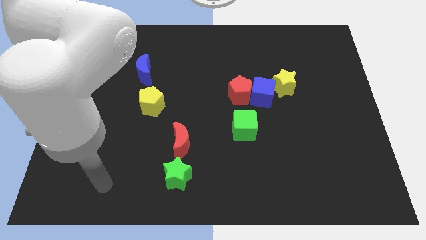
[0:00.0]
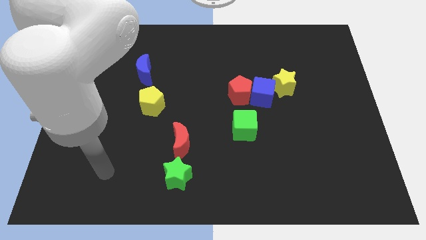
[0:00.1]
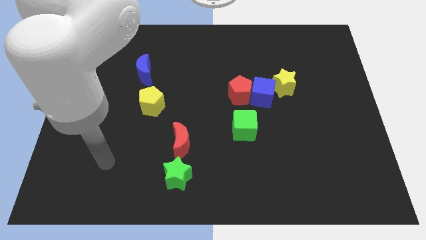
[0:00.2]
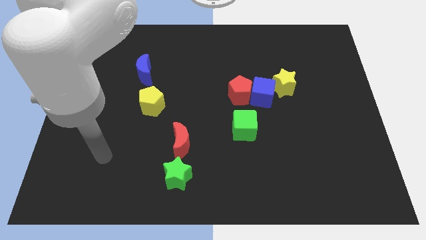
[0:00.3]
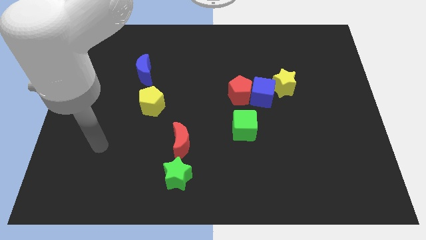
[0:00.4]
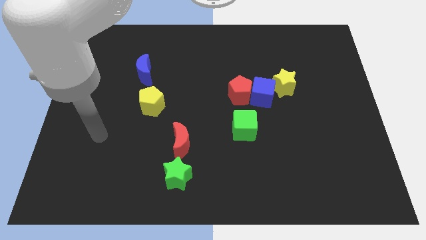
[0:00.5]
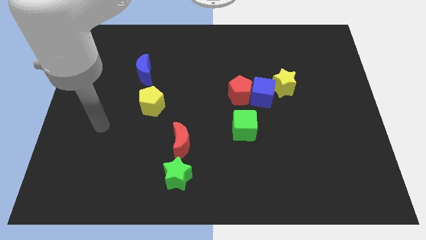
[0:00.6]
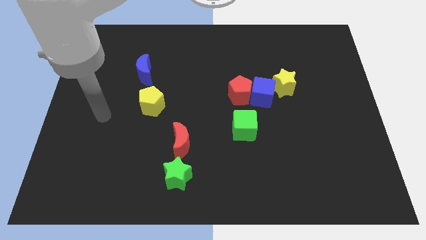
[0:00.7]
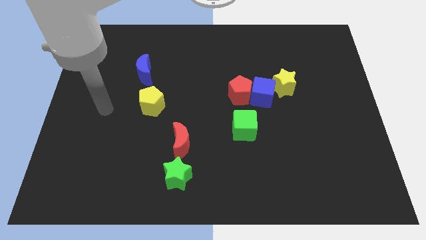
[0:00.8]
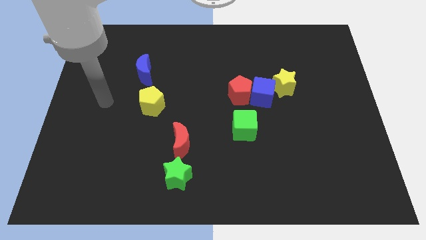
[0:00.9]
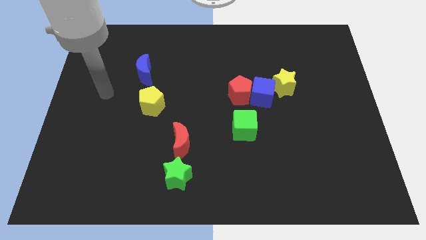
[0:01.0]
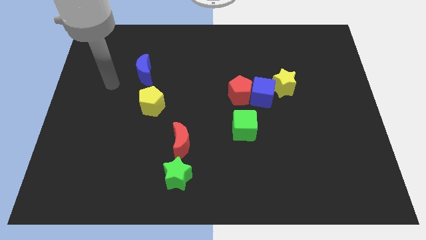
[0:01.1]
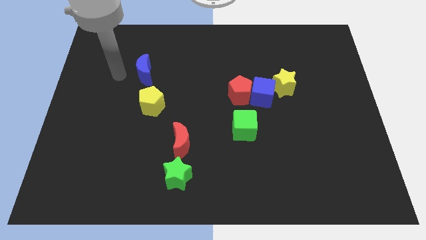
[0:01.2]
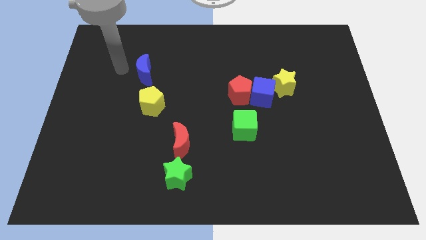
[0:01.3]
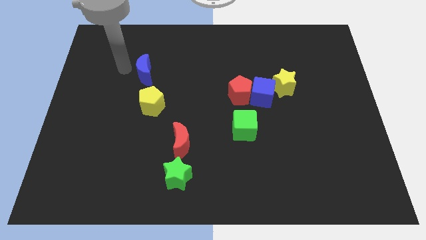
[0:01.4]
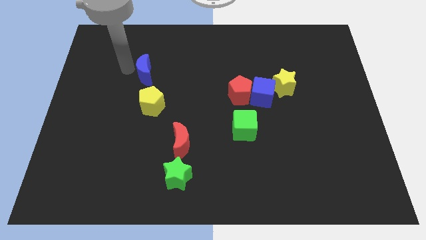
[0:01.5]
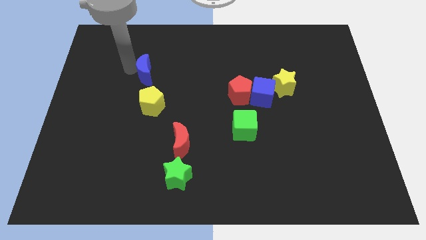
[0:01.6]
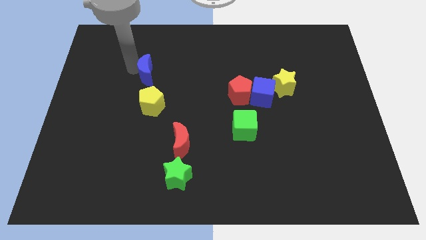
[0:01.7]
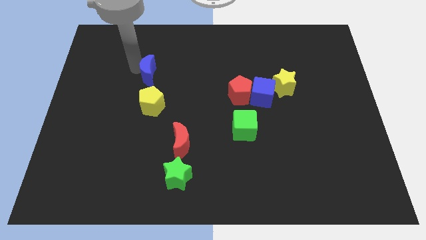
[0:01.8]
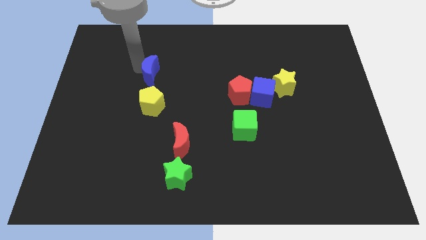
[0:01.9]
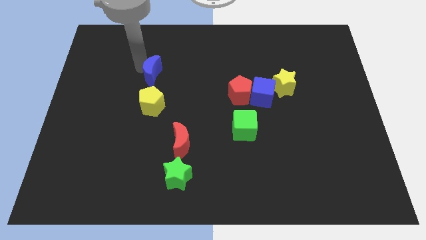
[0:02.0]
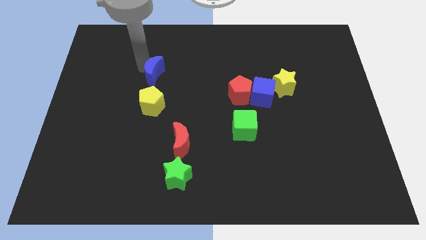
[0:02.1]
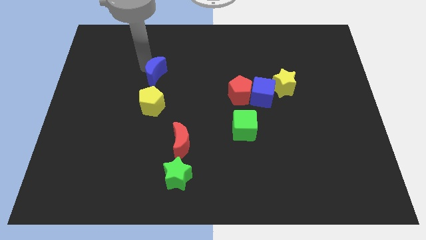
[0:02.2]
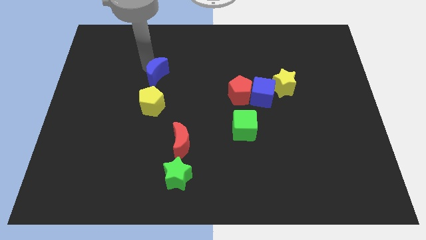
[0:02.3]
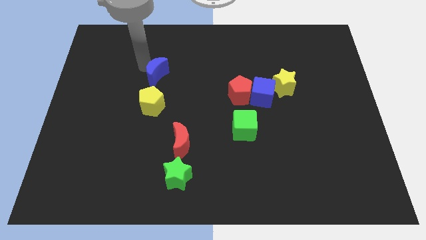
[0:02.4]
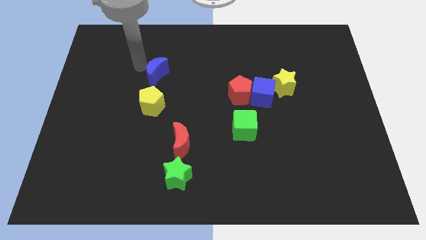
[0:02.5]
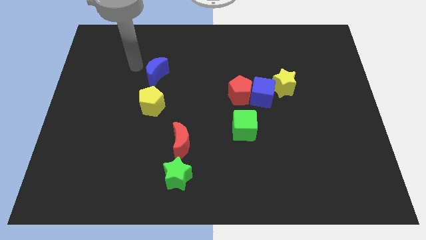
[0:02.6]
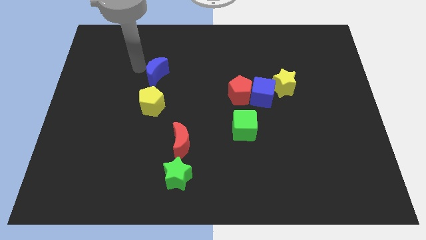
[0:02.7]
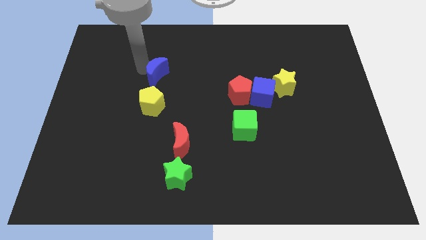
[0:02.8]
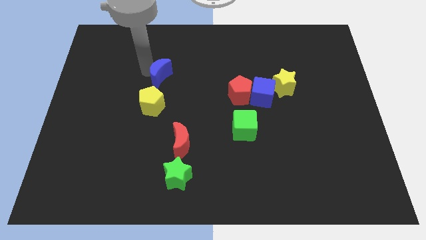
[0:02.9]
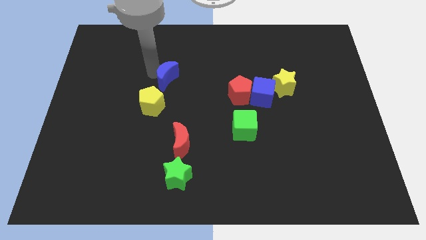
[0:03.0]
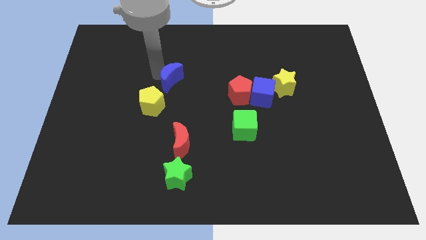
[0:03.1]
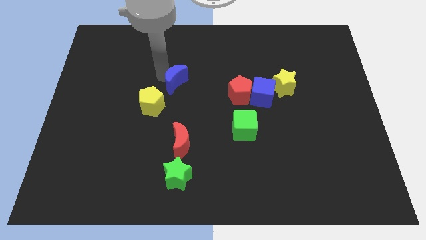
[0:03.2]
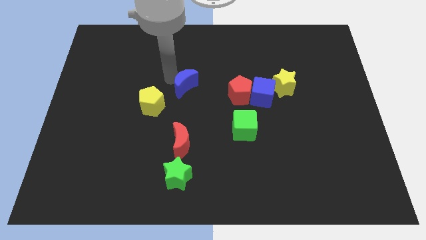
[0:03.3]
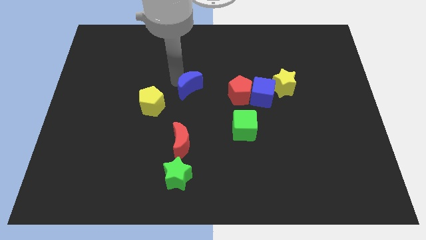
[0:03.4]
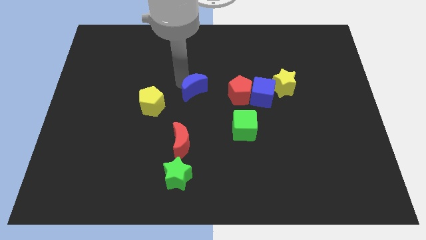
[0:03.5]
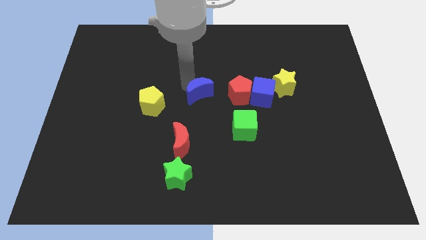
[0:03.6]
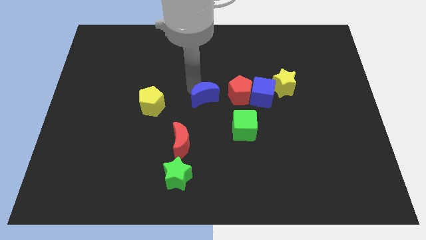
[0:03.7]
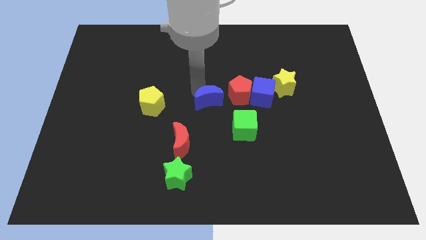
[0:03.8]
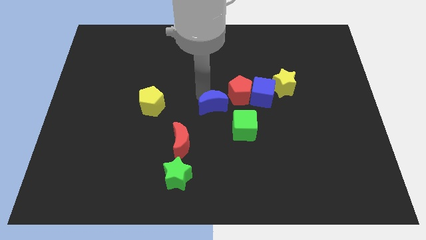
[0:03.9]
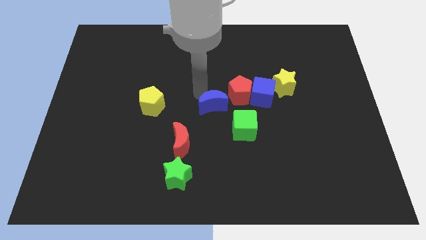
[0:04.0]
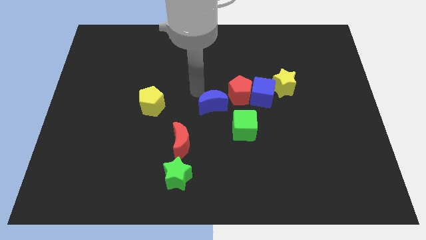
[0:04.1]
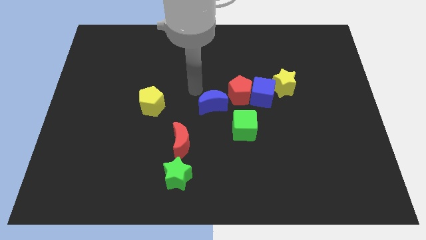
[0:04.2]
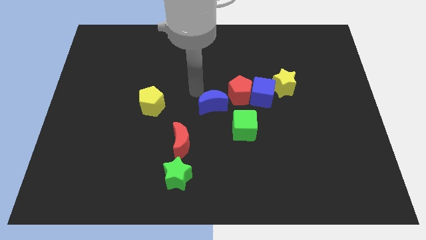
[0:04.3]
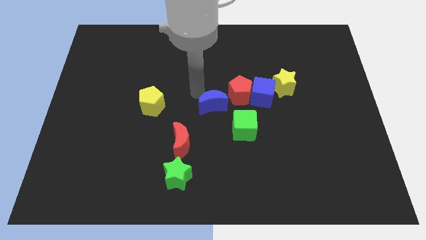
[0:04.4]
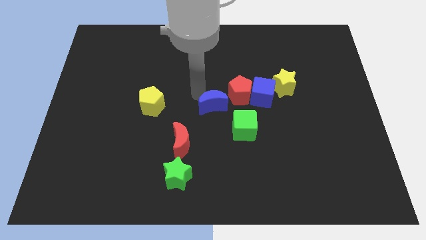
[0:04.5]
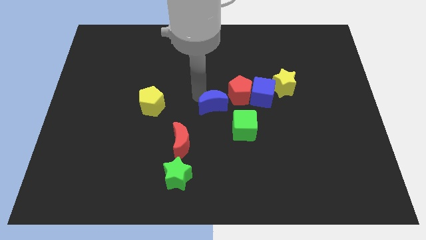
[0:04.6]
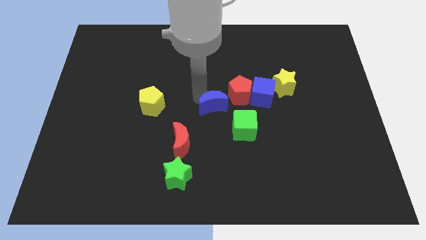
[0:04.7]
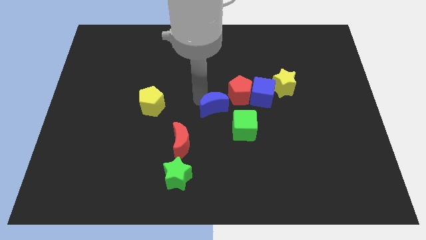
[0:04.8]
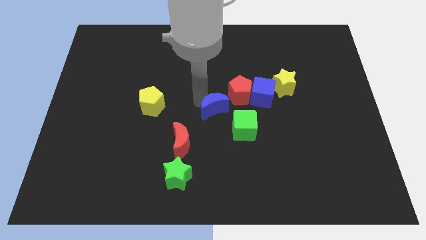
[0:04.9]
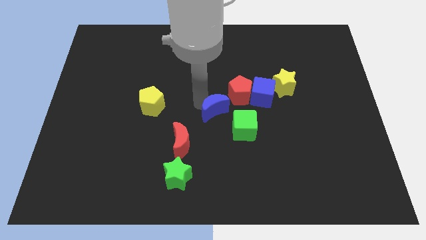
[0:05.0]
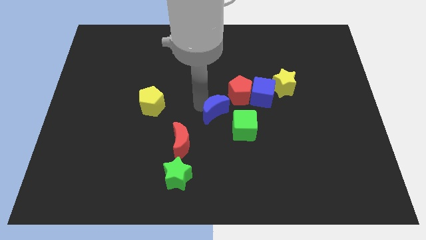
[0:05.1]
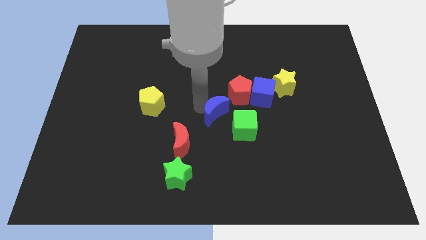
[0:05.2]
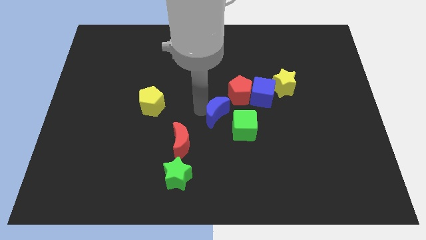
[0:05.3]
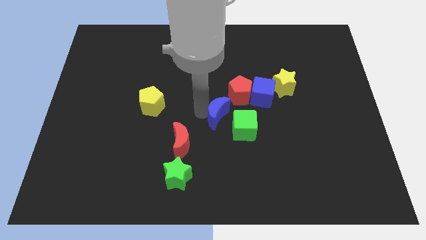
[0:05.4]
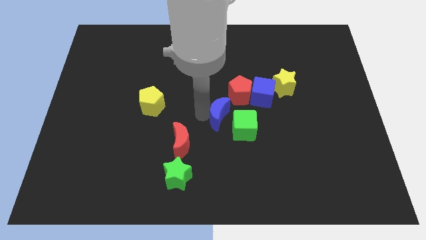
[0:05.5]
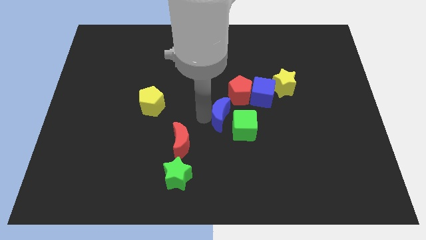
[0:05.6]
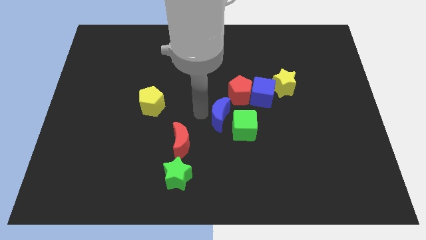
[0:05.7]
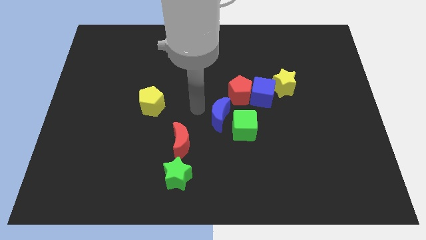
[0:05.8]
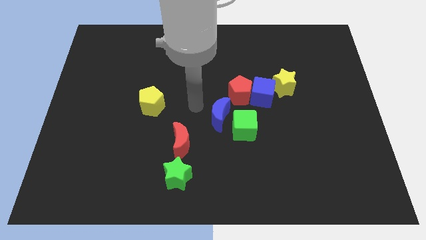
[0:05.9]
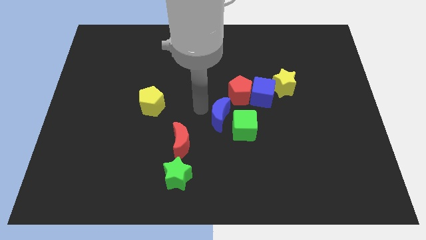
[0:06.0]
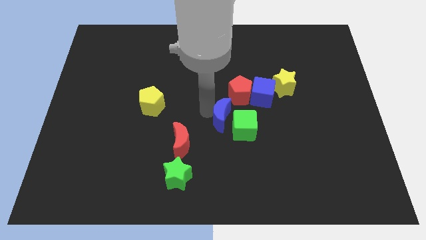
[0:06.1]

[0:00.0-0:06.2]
put the blue moon towards the green cube

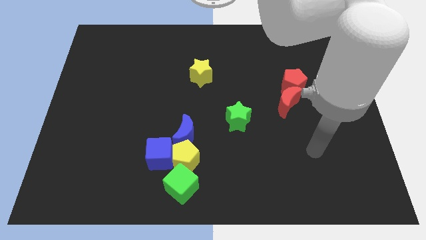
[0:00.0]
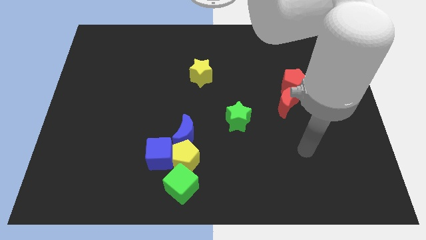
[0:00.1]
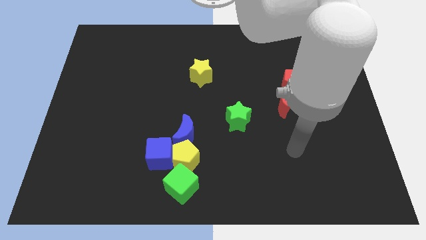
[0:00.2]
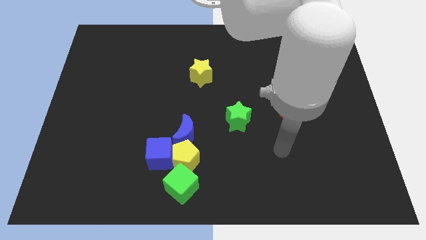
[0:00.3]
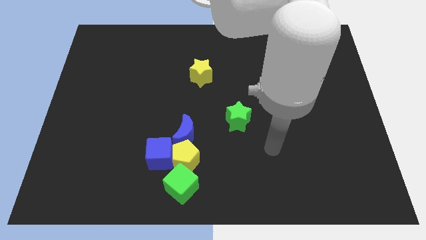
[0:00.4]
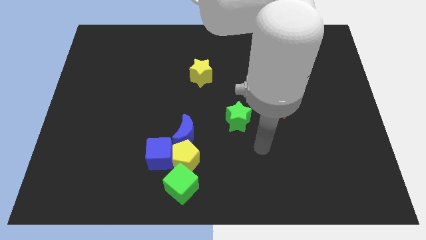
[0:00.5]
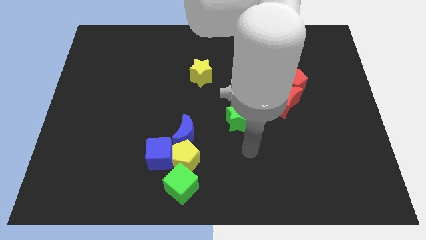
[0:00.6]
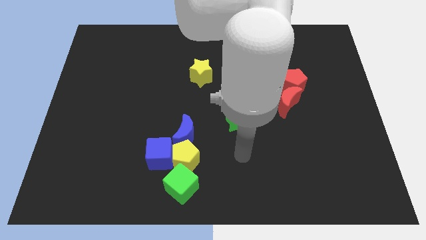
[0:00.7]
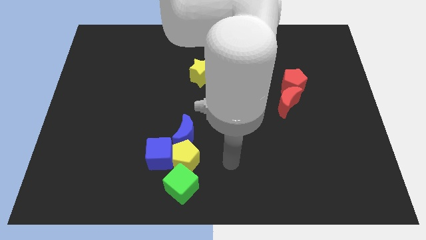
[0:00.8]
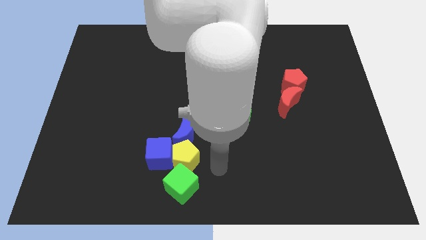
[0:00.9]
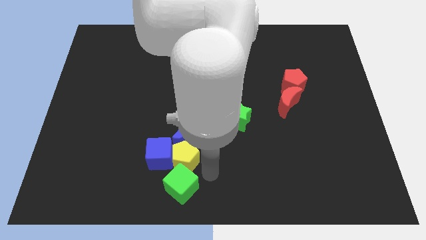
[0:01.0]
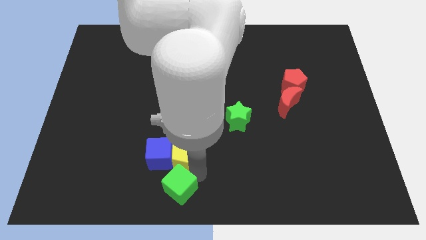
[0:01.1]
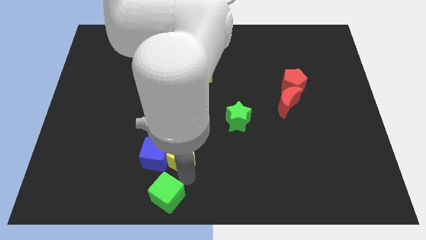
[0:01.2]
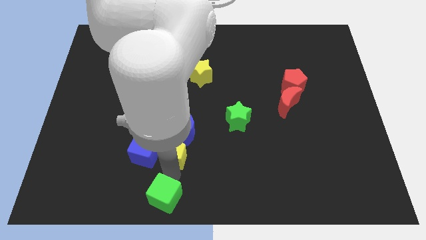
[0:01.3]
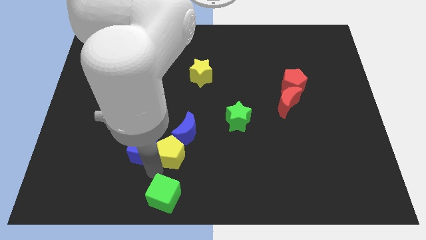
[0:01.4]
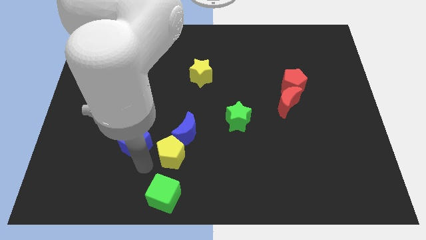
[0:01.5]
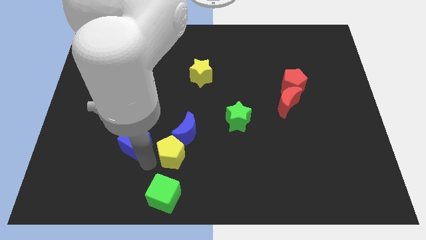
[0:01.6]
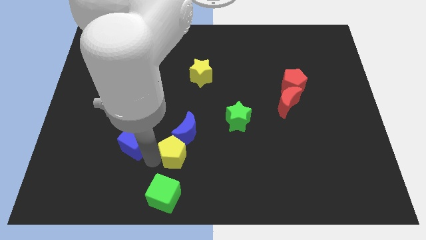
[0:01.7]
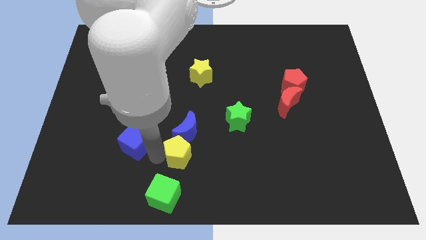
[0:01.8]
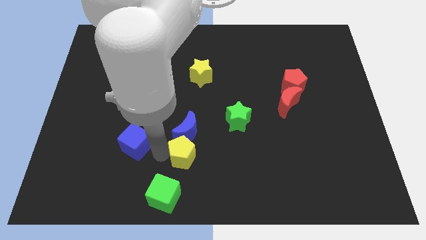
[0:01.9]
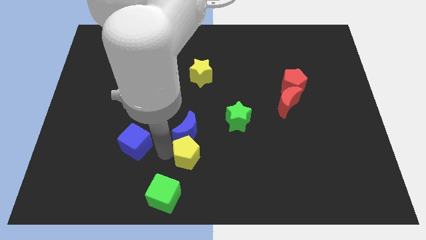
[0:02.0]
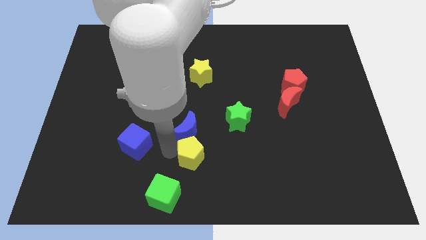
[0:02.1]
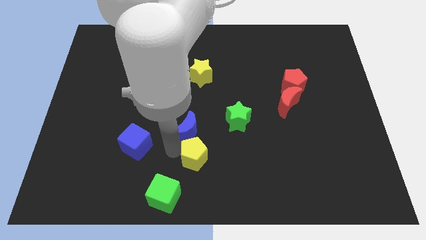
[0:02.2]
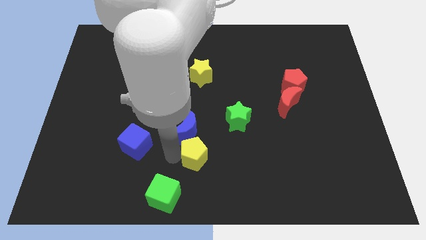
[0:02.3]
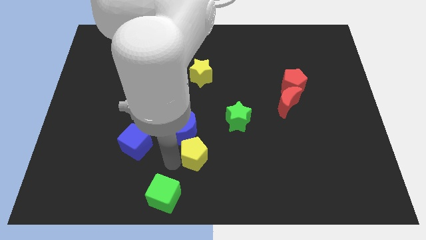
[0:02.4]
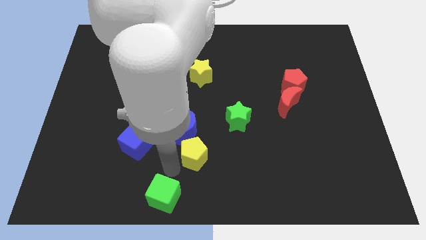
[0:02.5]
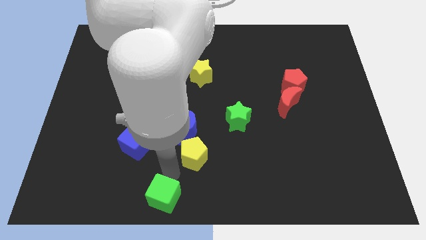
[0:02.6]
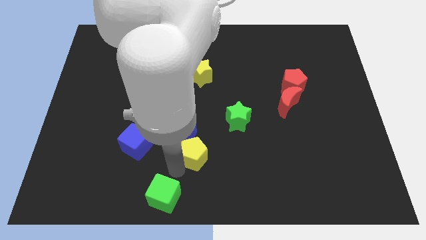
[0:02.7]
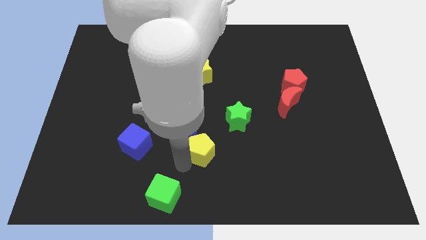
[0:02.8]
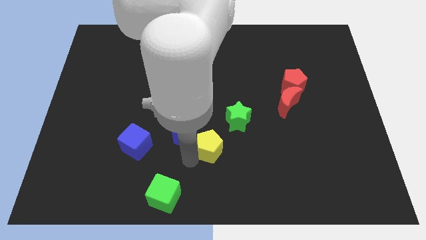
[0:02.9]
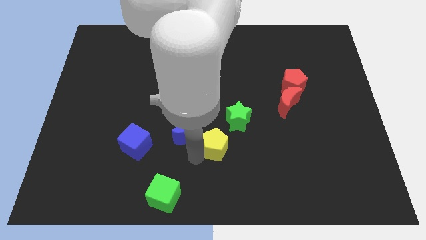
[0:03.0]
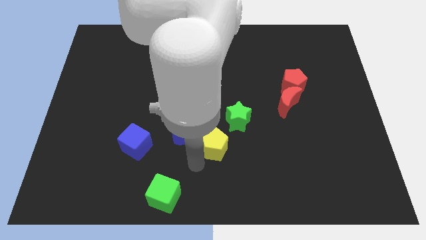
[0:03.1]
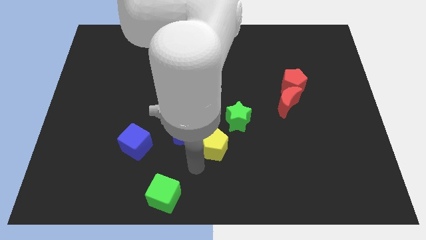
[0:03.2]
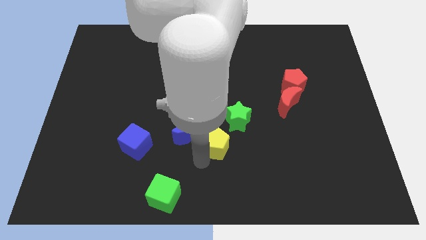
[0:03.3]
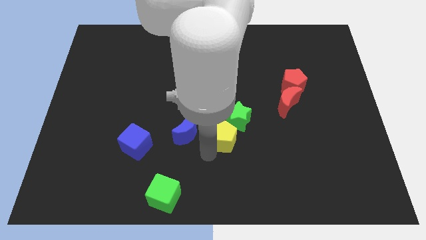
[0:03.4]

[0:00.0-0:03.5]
move the yellow pentagon close to the green star
